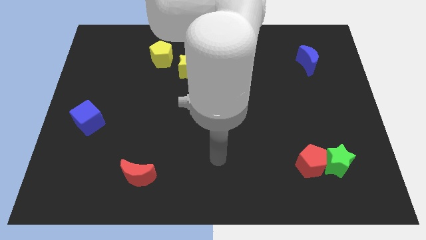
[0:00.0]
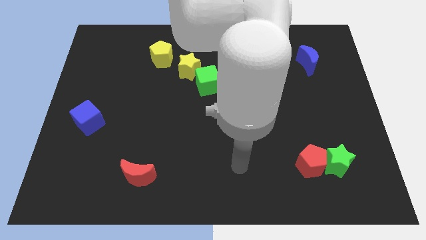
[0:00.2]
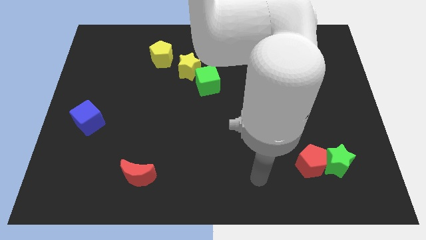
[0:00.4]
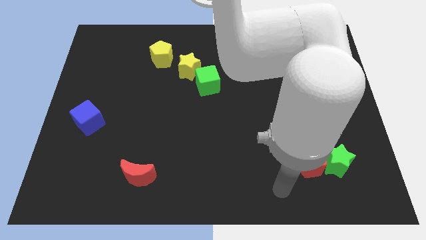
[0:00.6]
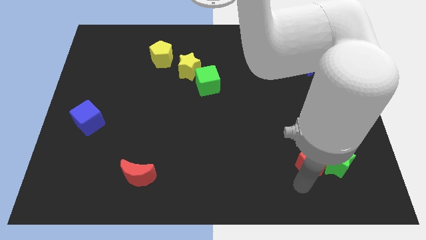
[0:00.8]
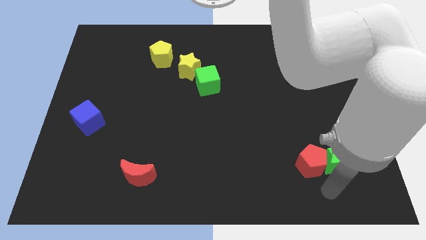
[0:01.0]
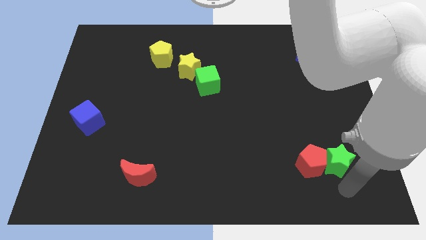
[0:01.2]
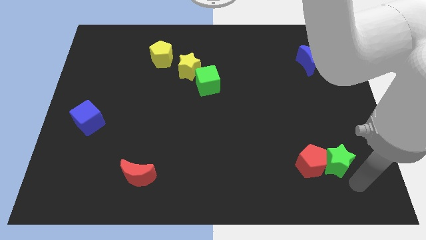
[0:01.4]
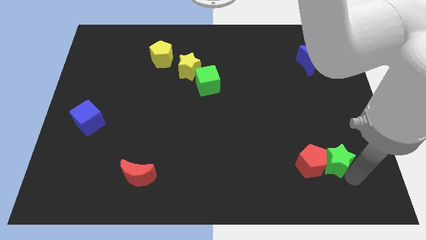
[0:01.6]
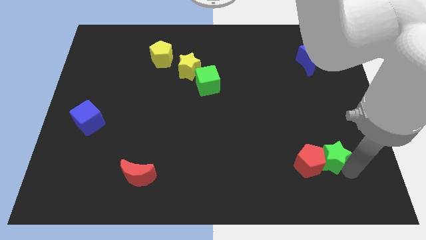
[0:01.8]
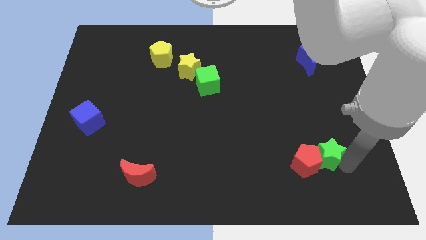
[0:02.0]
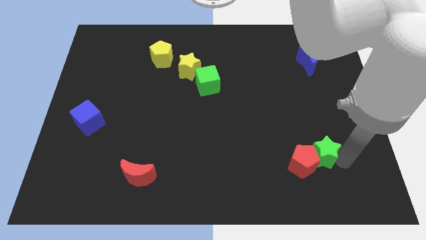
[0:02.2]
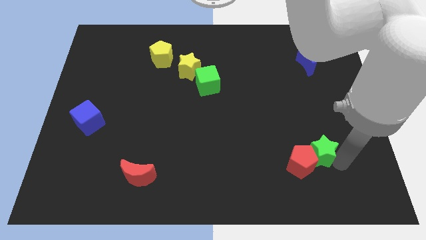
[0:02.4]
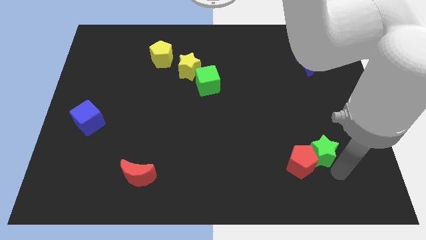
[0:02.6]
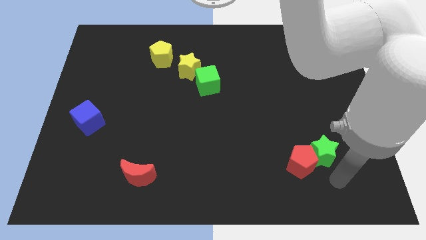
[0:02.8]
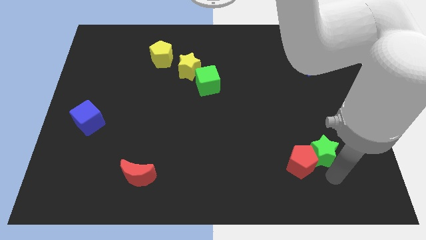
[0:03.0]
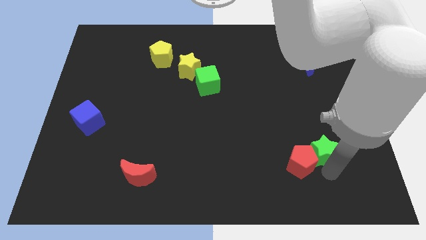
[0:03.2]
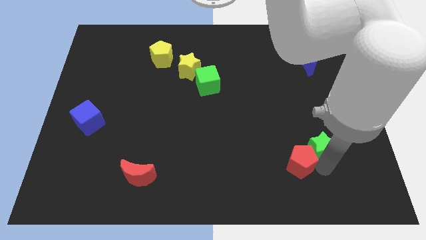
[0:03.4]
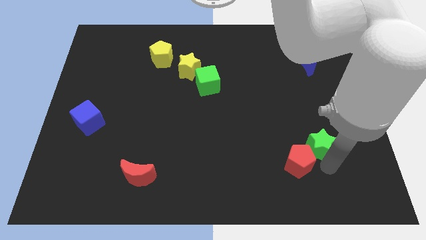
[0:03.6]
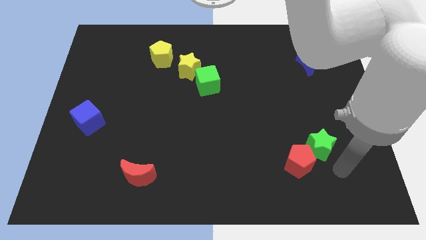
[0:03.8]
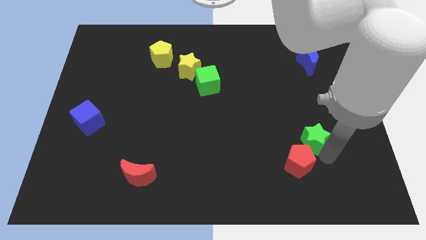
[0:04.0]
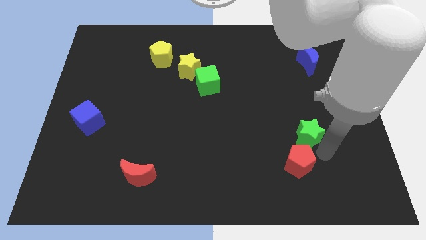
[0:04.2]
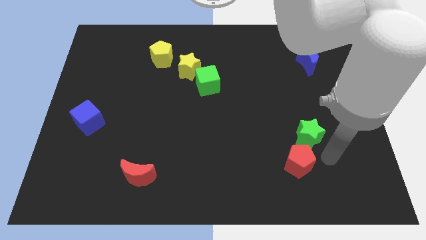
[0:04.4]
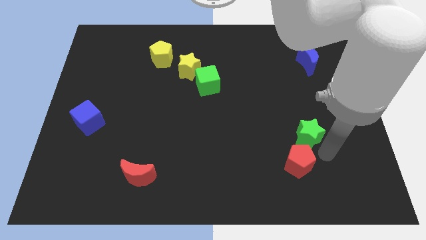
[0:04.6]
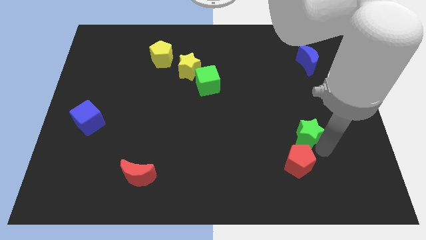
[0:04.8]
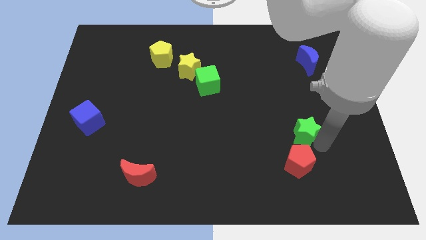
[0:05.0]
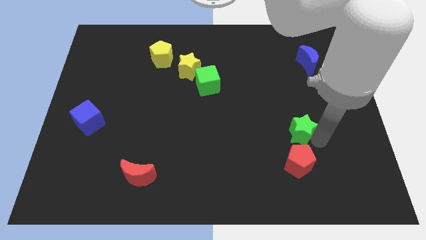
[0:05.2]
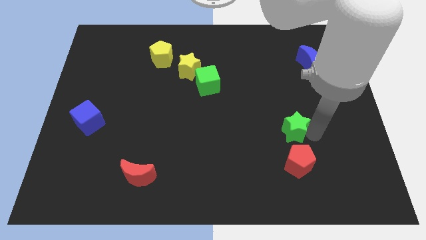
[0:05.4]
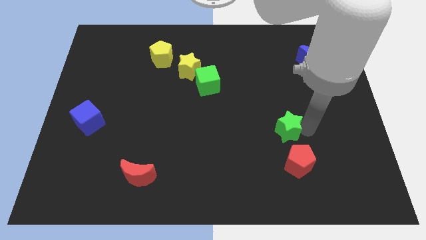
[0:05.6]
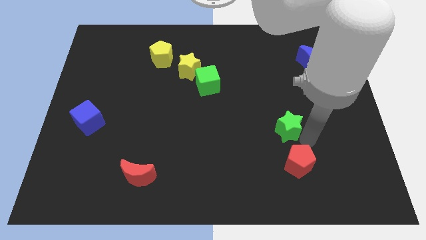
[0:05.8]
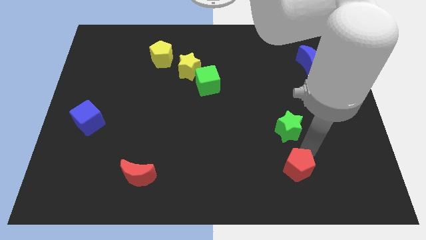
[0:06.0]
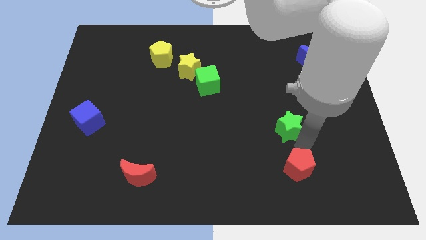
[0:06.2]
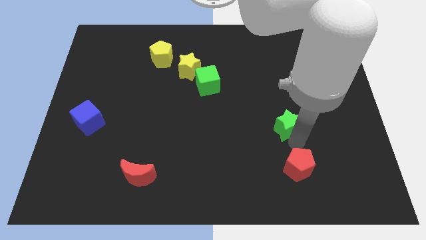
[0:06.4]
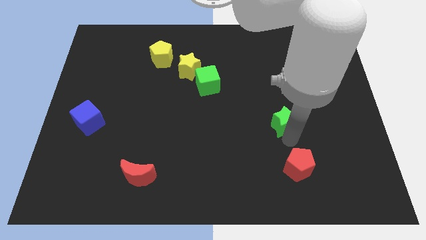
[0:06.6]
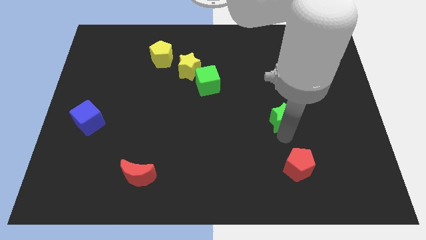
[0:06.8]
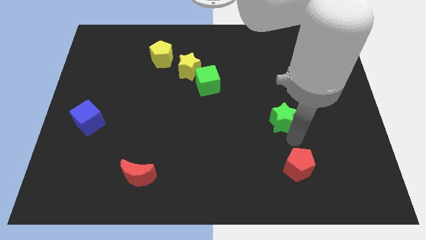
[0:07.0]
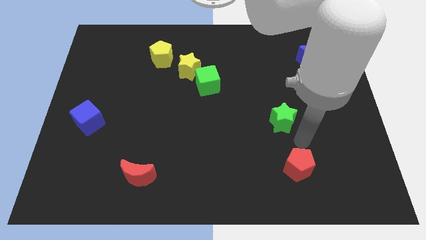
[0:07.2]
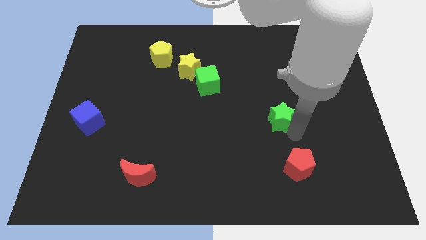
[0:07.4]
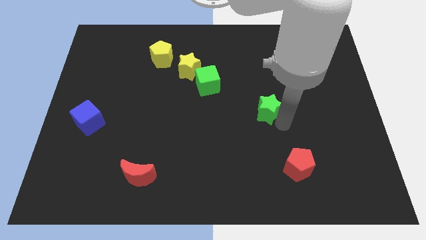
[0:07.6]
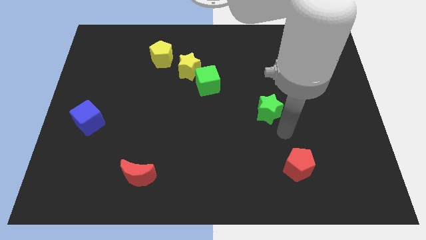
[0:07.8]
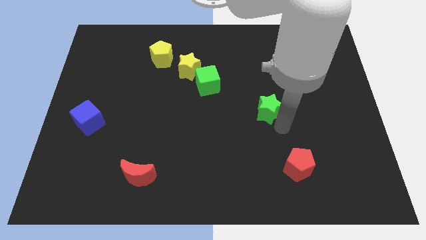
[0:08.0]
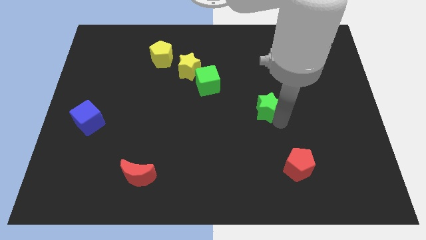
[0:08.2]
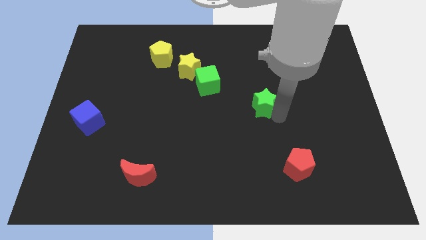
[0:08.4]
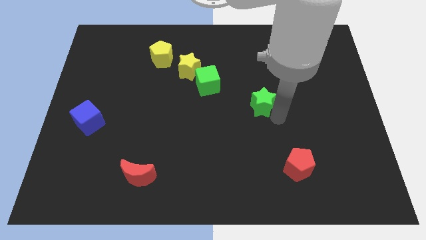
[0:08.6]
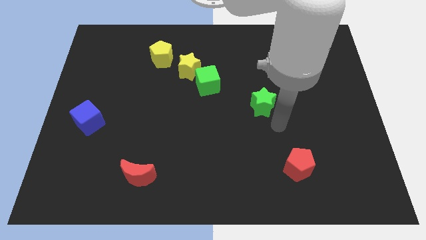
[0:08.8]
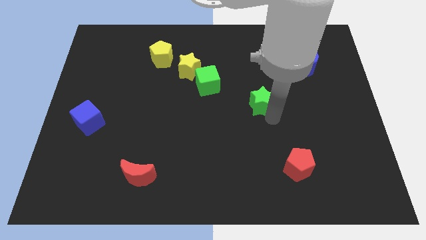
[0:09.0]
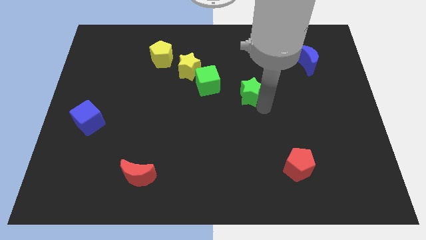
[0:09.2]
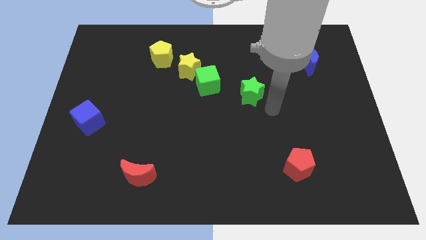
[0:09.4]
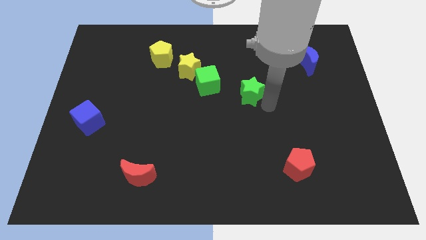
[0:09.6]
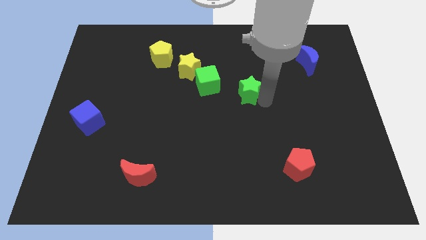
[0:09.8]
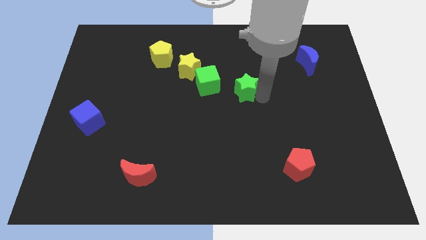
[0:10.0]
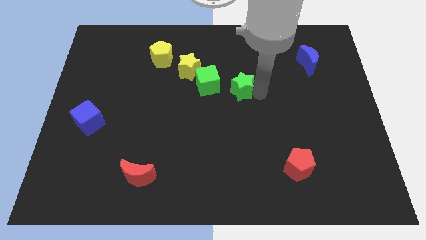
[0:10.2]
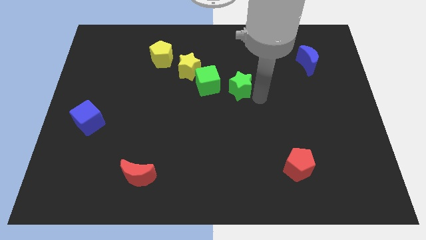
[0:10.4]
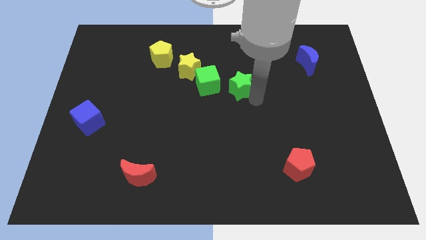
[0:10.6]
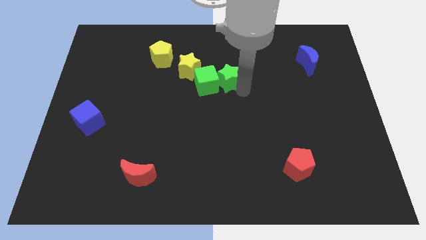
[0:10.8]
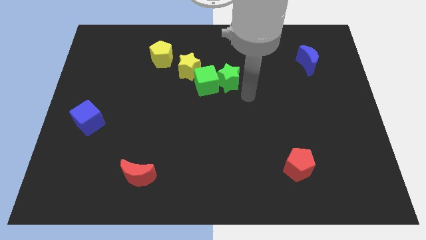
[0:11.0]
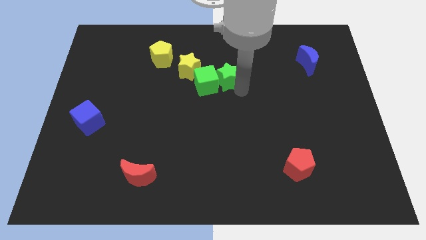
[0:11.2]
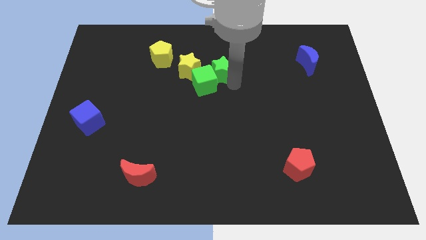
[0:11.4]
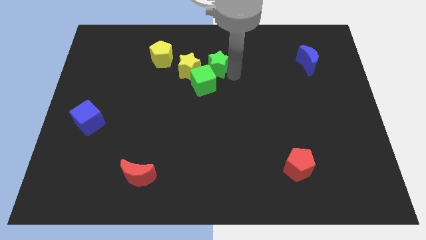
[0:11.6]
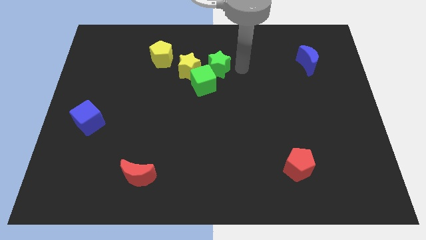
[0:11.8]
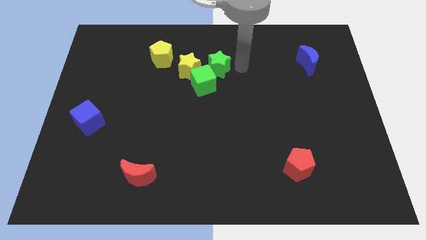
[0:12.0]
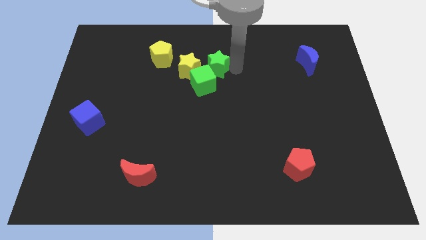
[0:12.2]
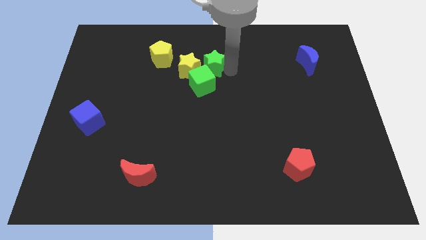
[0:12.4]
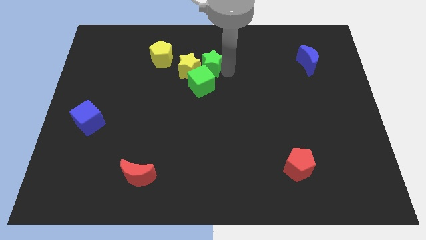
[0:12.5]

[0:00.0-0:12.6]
put the green star towards the yellow star
